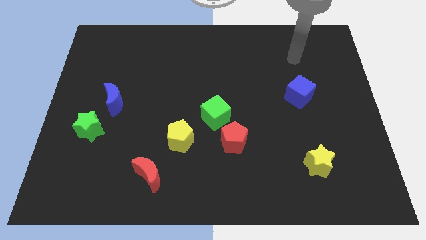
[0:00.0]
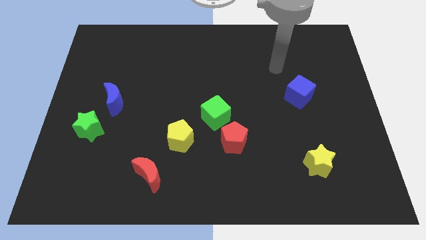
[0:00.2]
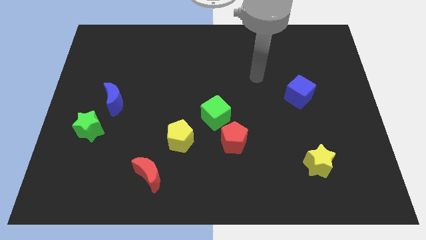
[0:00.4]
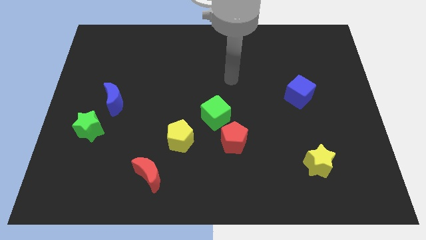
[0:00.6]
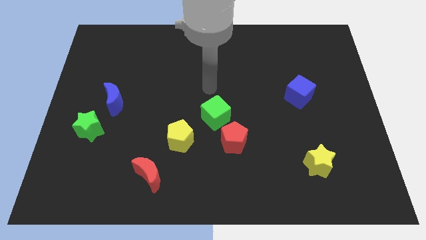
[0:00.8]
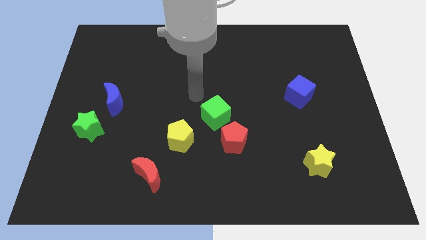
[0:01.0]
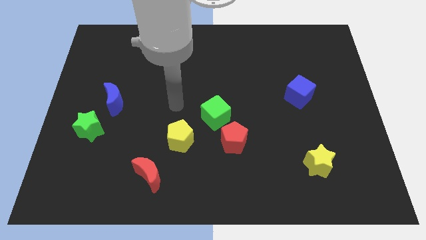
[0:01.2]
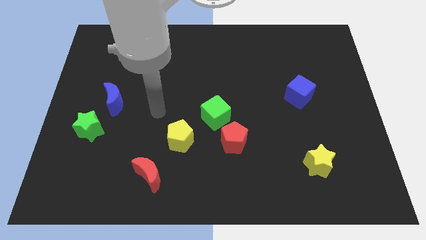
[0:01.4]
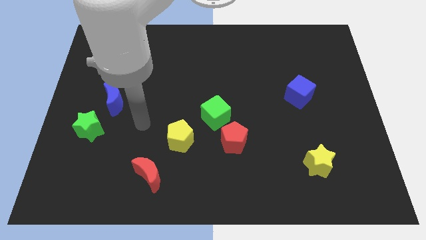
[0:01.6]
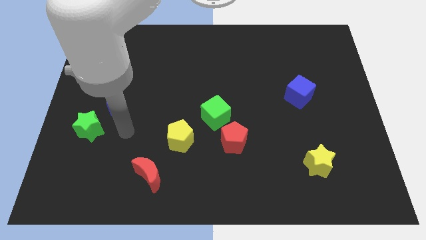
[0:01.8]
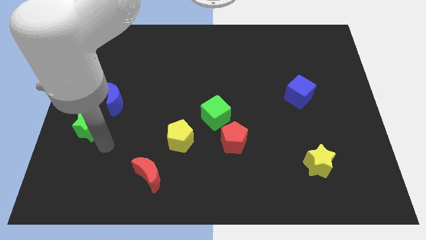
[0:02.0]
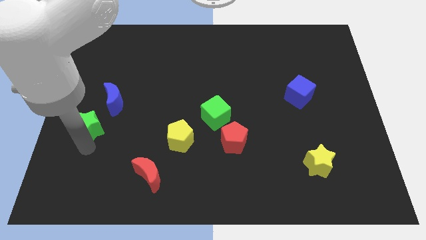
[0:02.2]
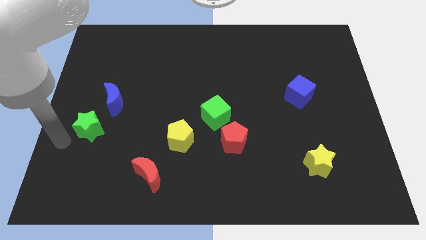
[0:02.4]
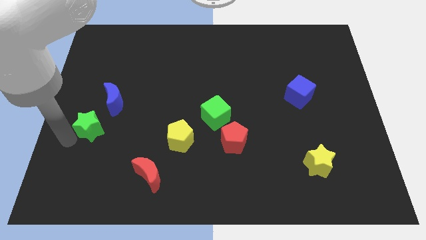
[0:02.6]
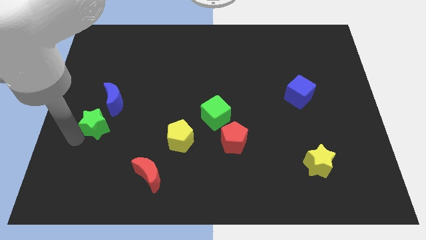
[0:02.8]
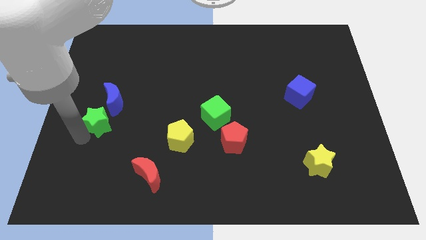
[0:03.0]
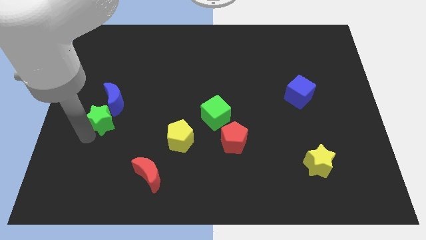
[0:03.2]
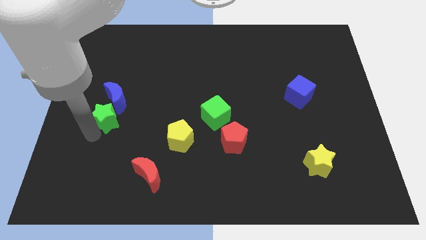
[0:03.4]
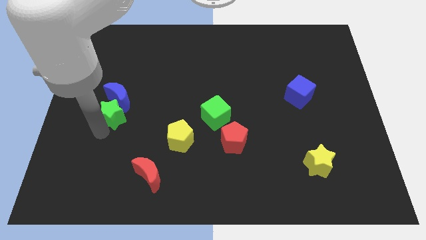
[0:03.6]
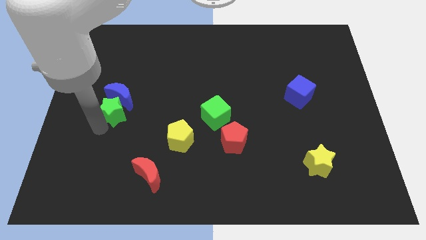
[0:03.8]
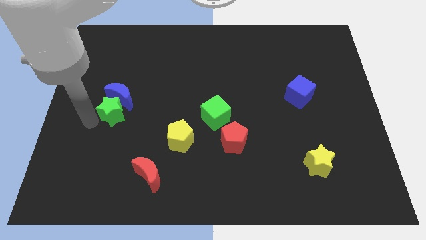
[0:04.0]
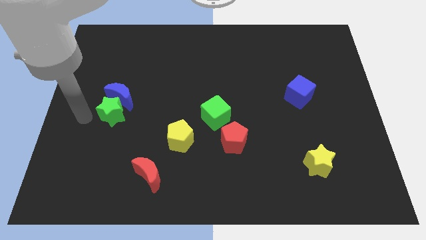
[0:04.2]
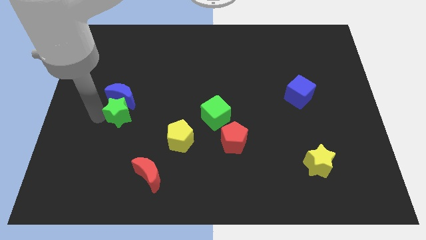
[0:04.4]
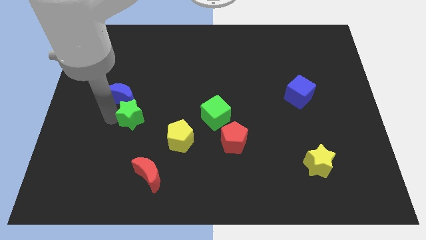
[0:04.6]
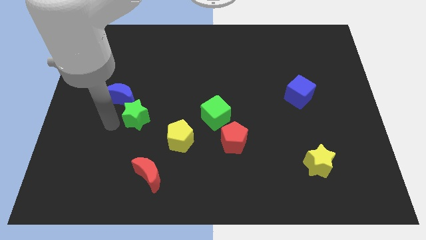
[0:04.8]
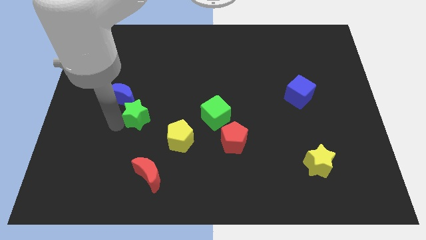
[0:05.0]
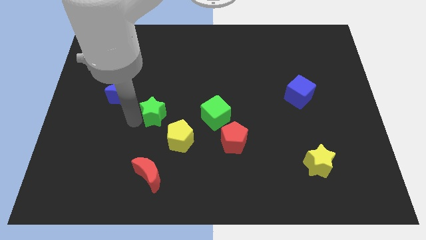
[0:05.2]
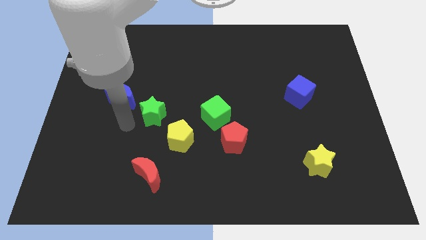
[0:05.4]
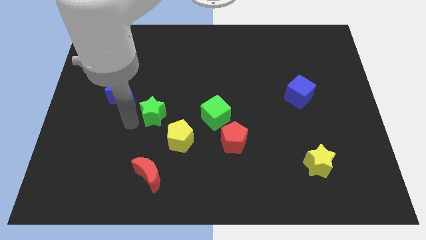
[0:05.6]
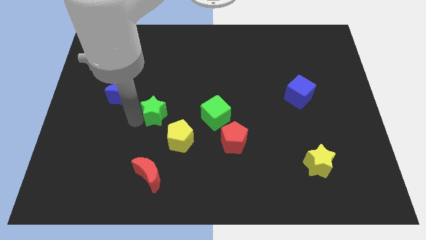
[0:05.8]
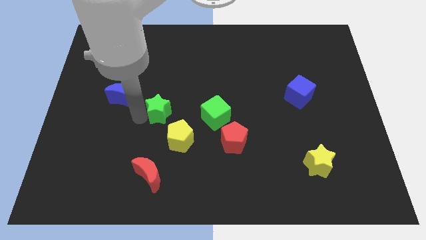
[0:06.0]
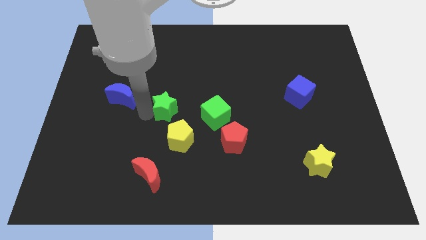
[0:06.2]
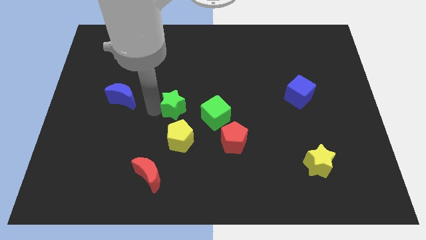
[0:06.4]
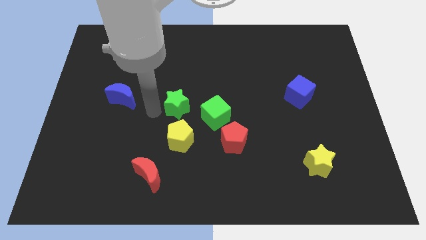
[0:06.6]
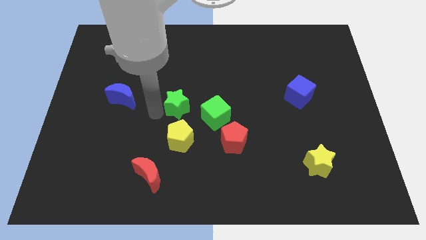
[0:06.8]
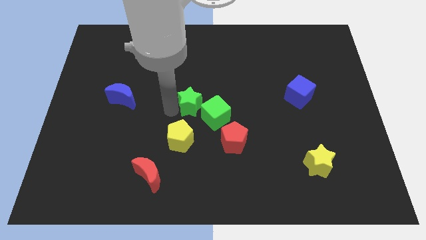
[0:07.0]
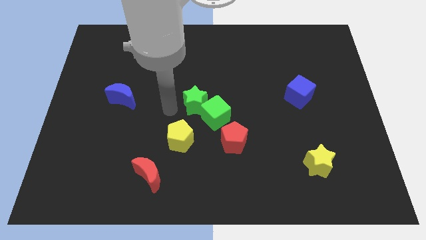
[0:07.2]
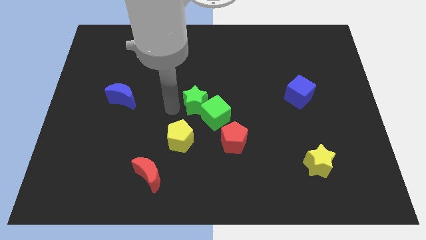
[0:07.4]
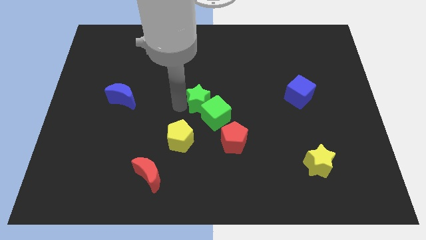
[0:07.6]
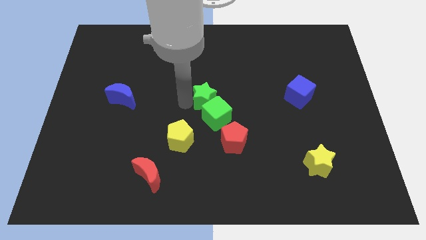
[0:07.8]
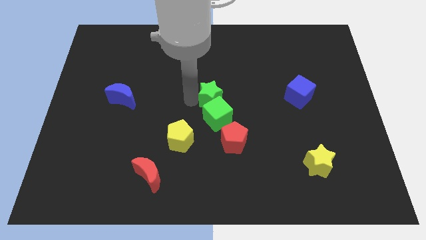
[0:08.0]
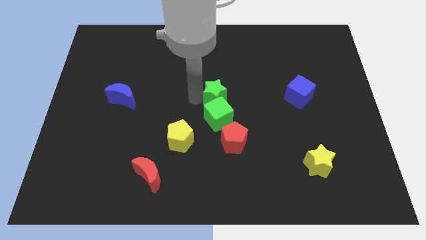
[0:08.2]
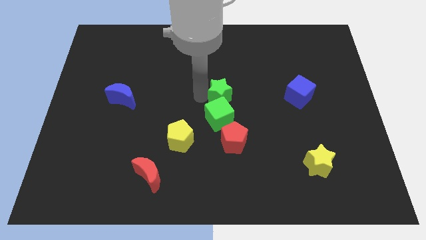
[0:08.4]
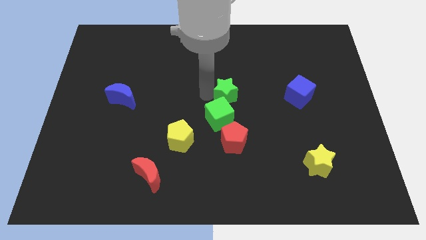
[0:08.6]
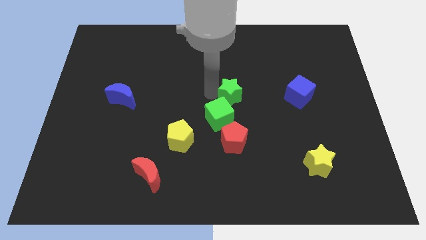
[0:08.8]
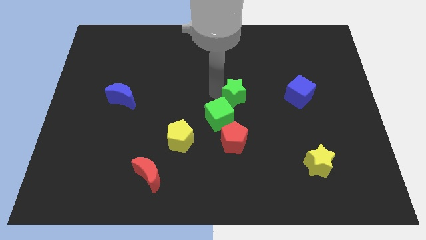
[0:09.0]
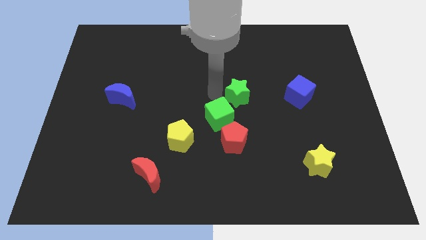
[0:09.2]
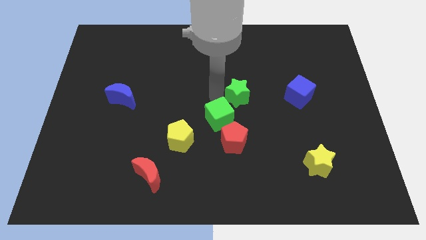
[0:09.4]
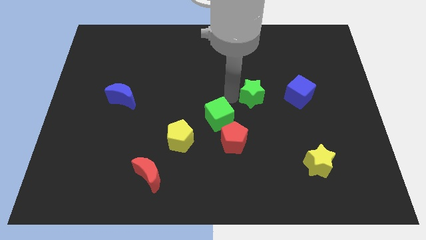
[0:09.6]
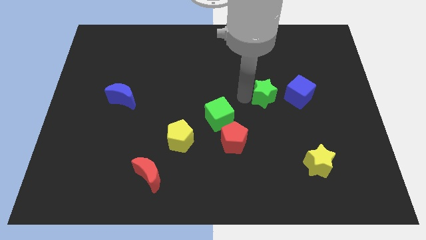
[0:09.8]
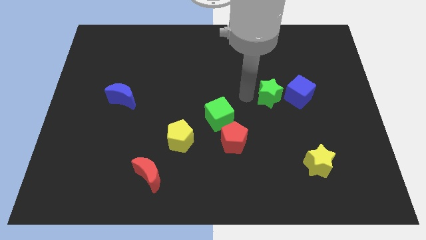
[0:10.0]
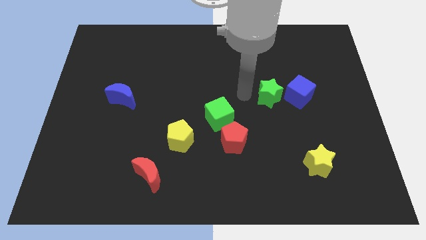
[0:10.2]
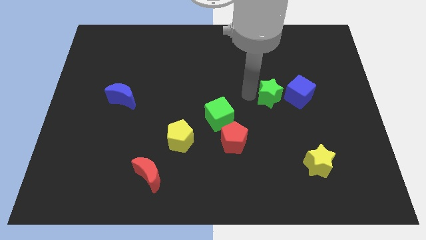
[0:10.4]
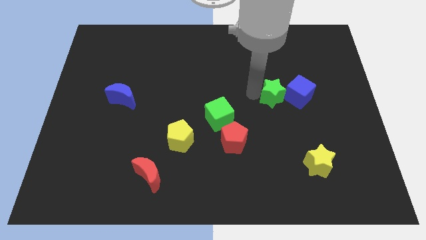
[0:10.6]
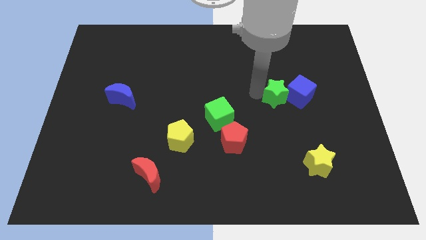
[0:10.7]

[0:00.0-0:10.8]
push the green star towards the blue cube

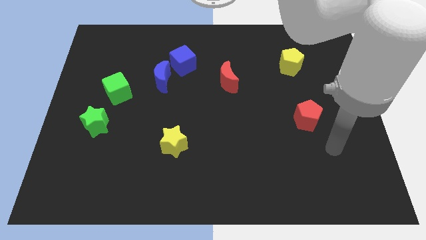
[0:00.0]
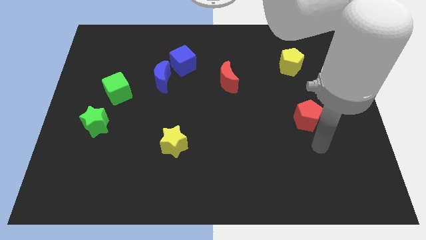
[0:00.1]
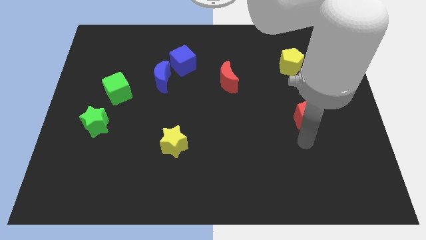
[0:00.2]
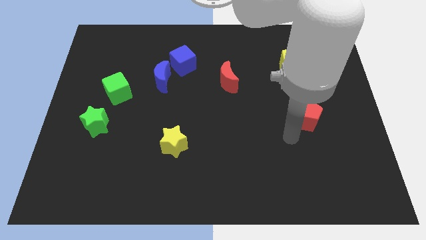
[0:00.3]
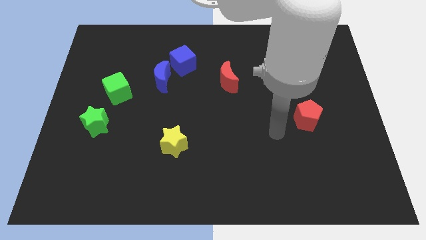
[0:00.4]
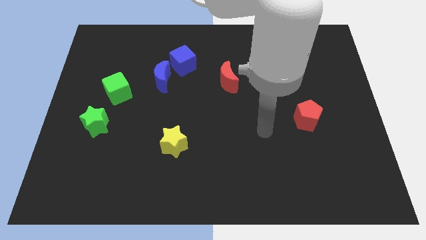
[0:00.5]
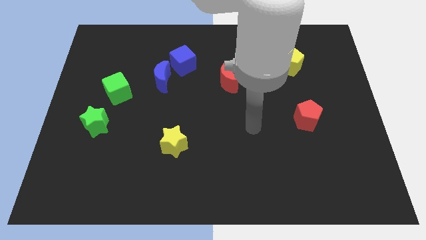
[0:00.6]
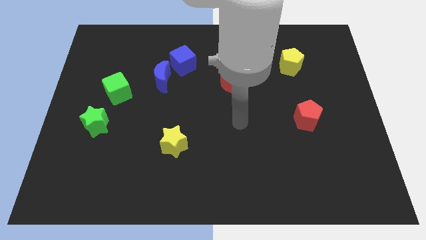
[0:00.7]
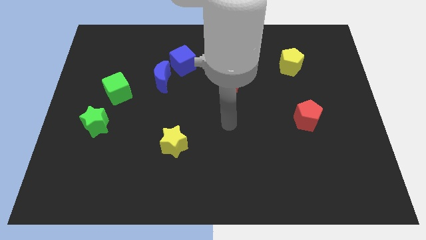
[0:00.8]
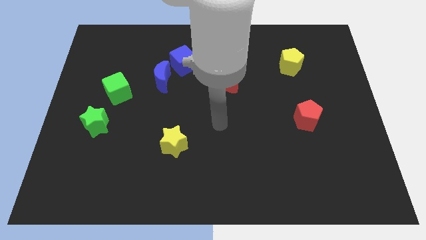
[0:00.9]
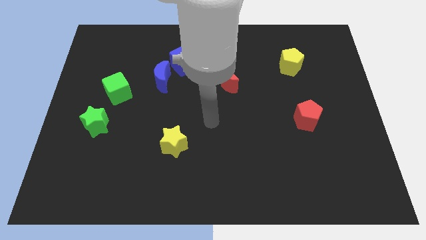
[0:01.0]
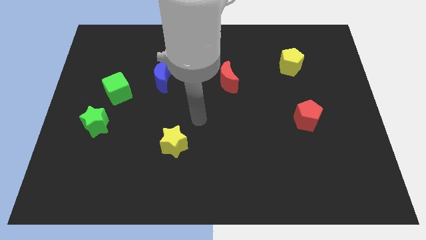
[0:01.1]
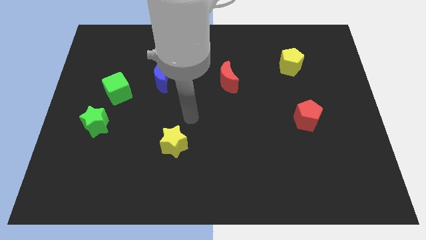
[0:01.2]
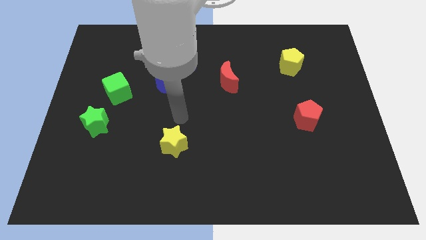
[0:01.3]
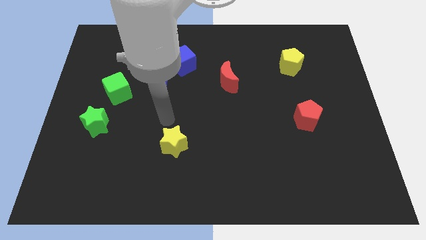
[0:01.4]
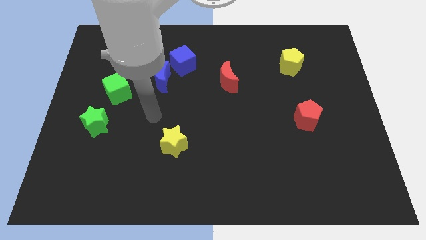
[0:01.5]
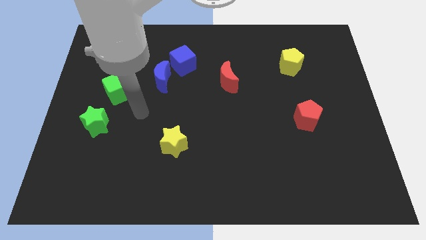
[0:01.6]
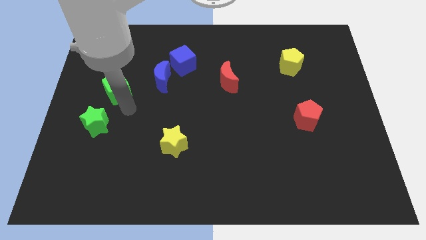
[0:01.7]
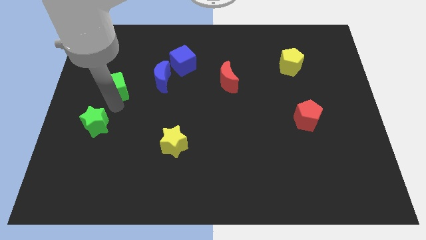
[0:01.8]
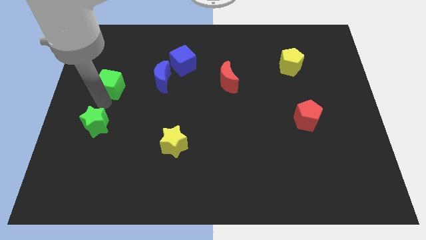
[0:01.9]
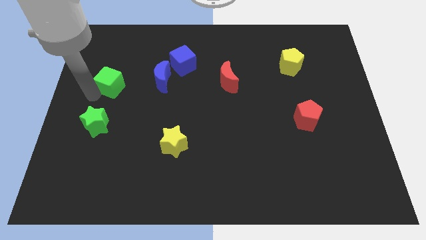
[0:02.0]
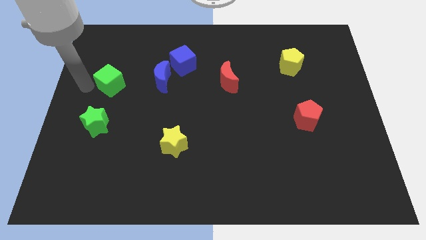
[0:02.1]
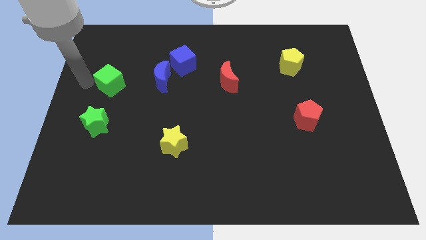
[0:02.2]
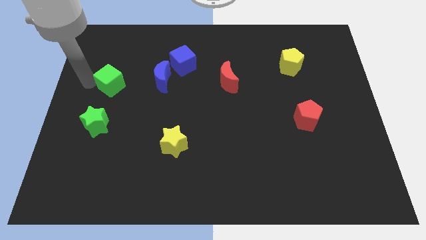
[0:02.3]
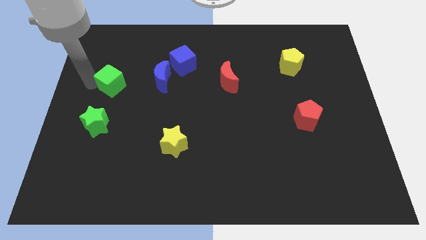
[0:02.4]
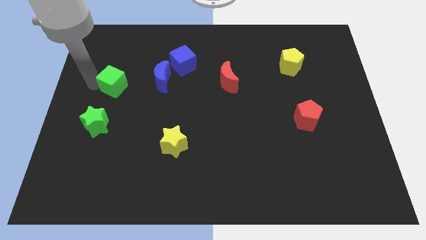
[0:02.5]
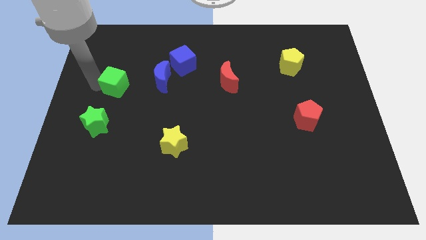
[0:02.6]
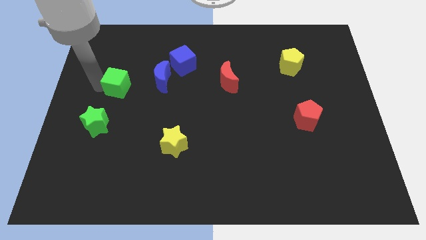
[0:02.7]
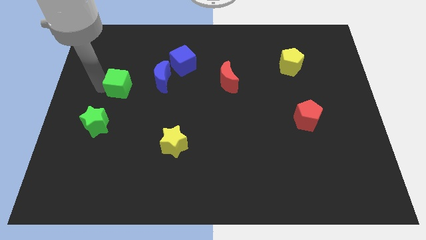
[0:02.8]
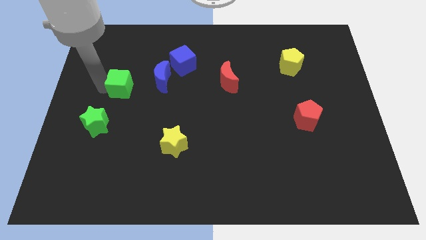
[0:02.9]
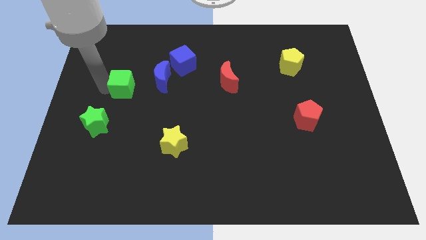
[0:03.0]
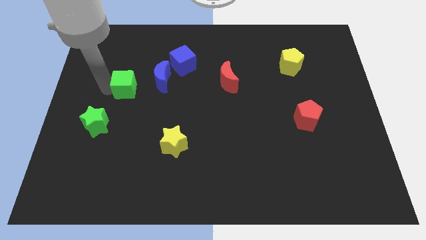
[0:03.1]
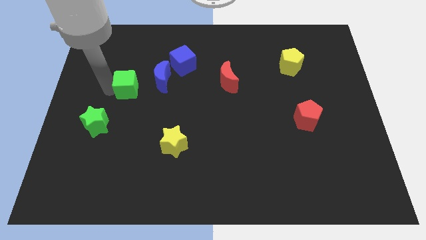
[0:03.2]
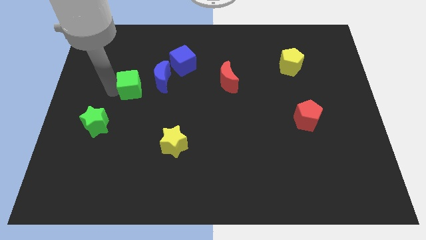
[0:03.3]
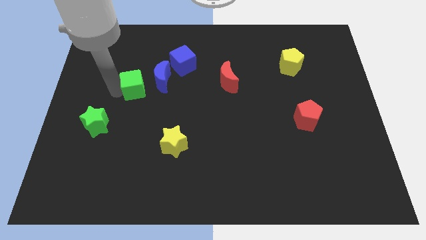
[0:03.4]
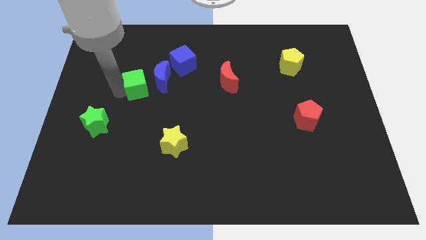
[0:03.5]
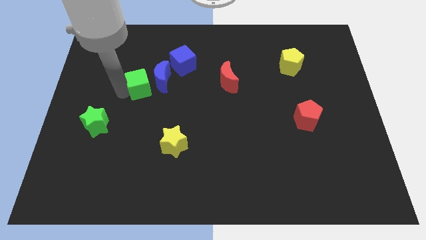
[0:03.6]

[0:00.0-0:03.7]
put the green cube close to the blue moon
